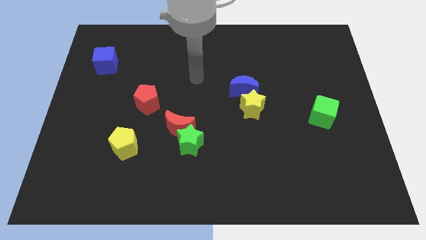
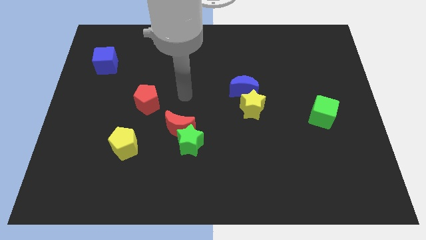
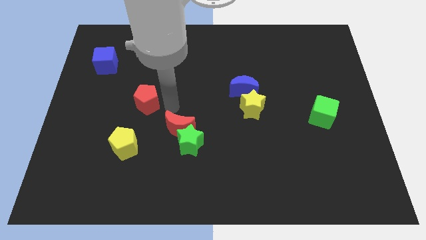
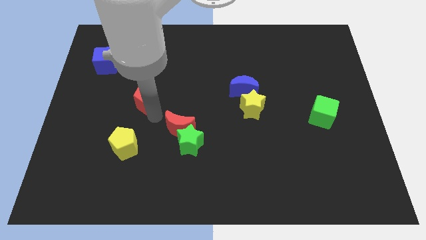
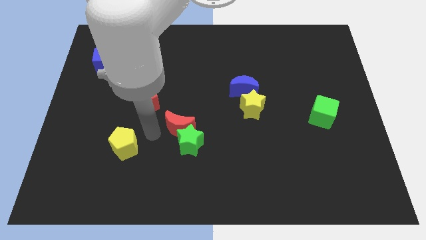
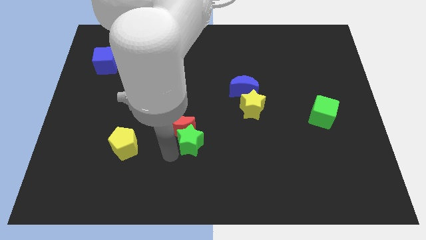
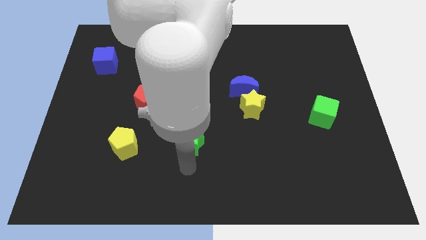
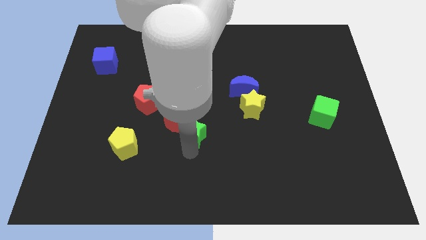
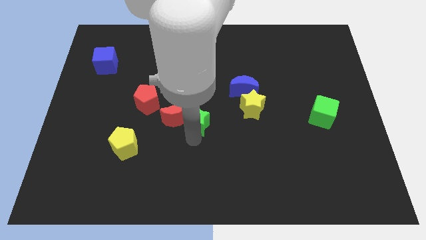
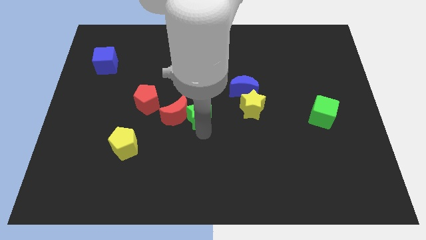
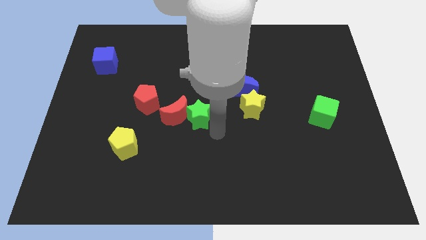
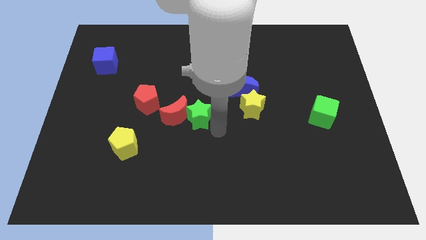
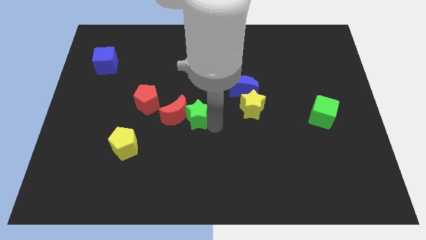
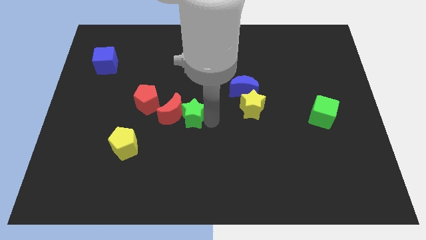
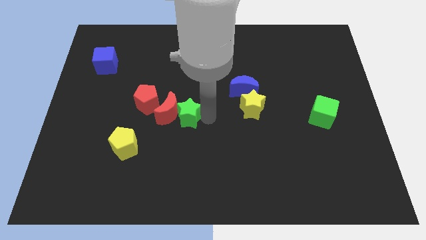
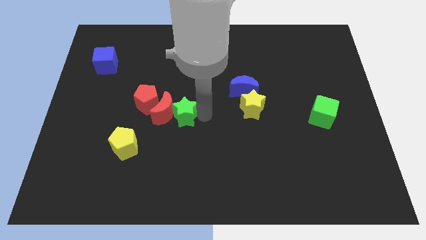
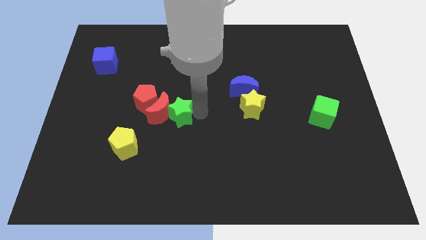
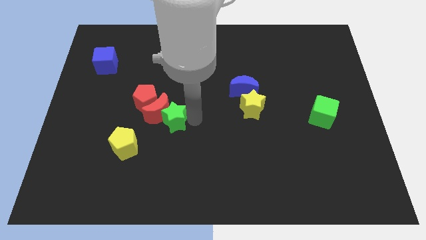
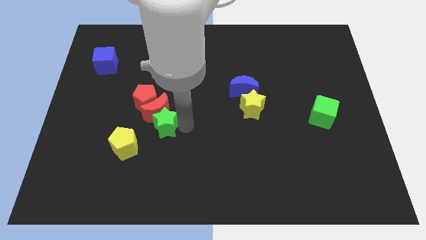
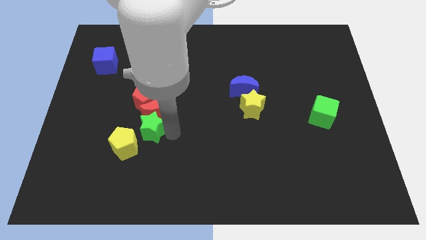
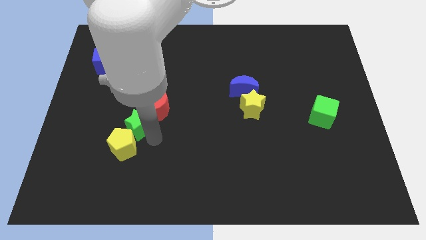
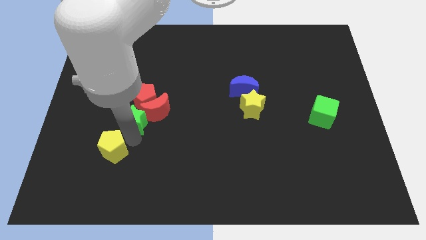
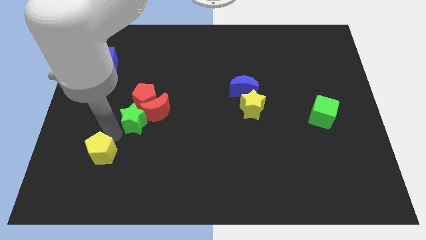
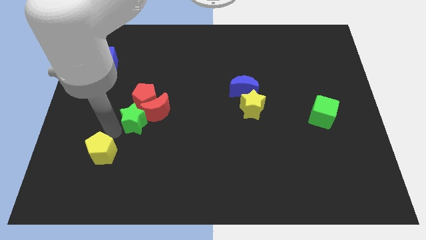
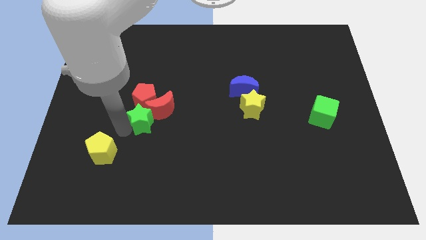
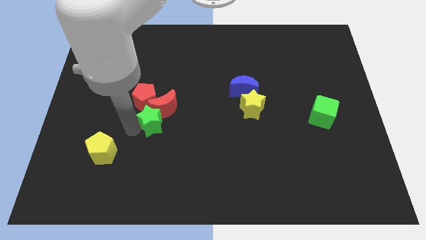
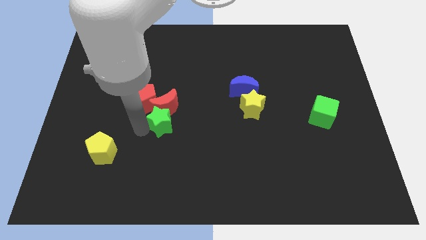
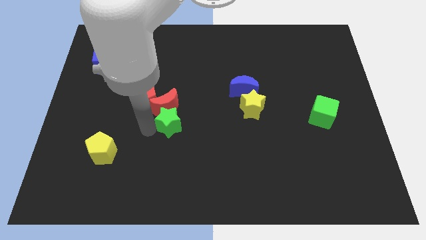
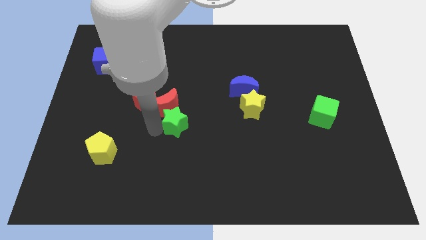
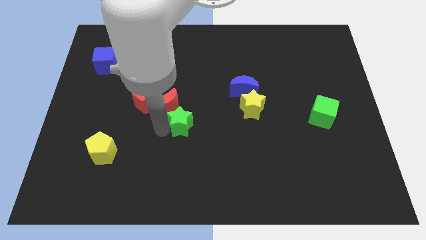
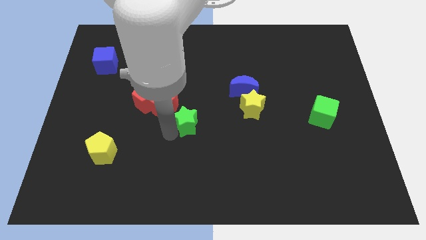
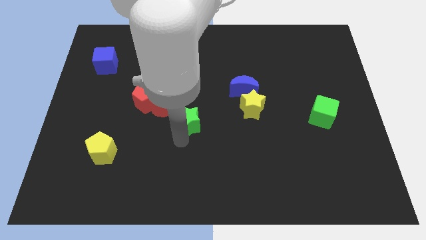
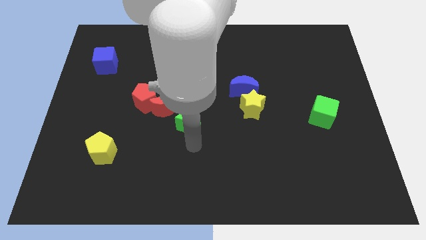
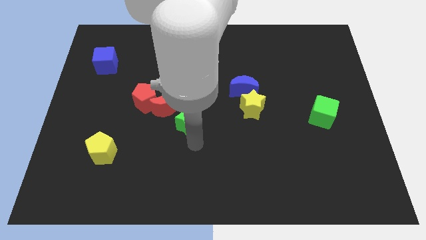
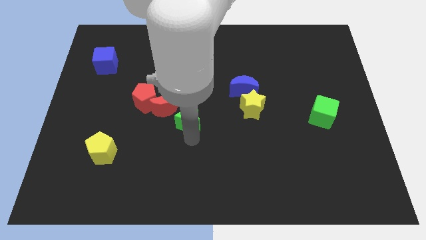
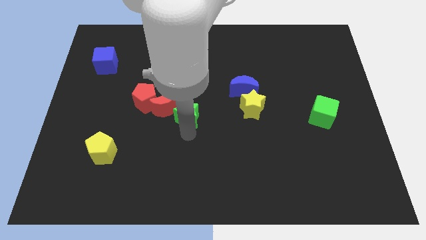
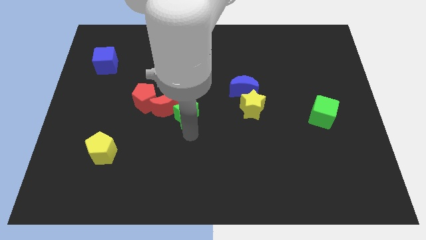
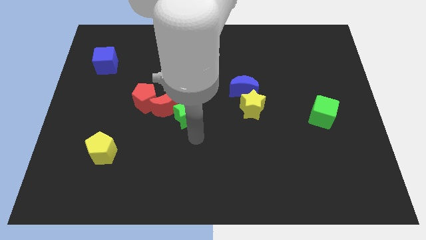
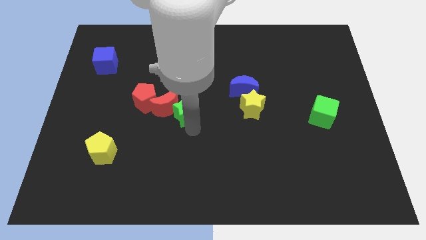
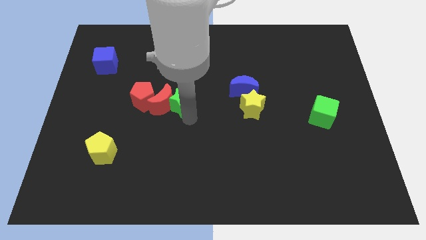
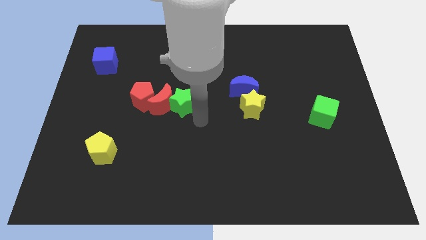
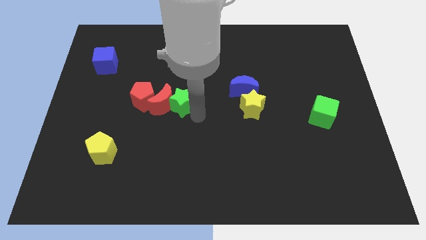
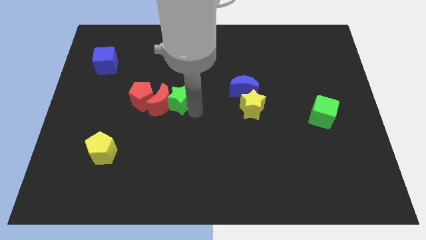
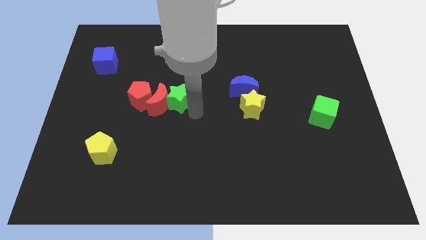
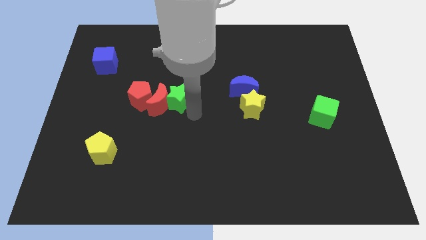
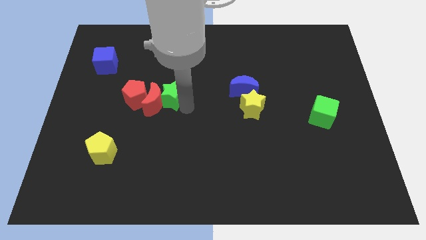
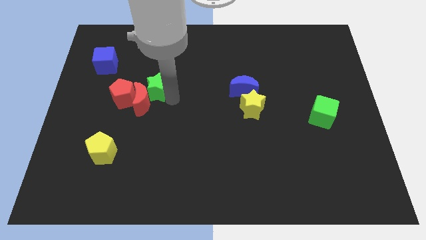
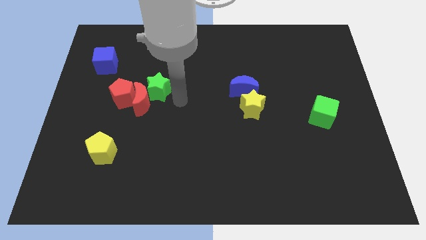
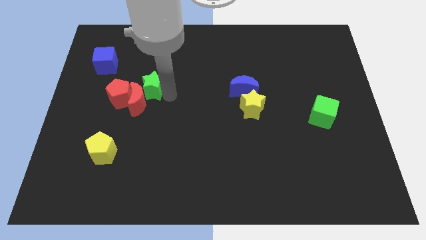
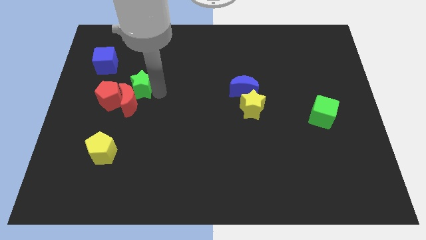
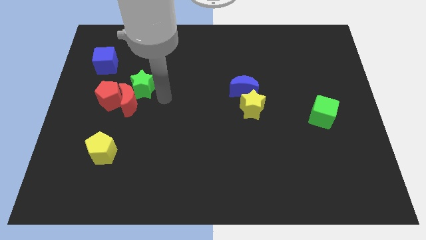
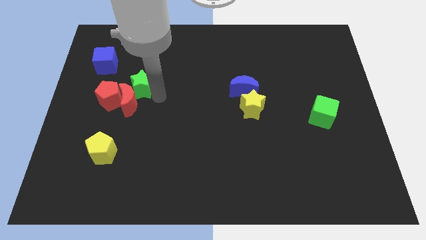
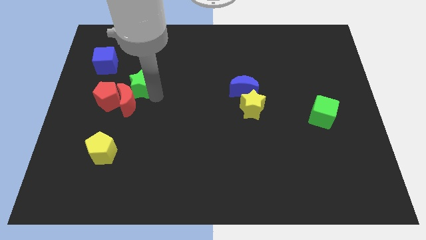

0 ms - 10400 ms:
put the green star to the bottom right side of the blue cube

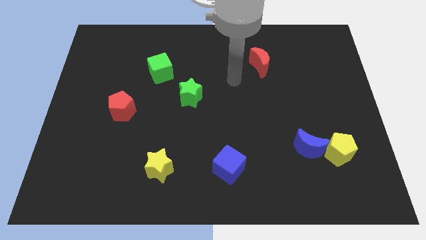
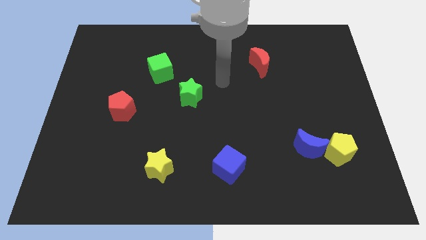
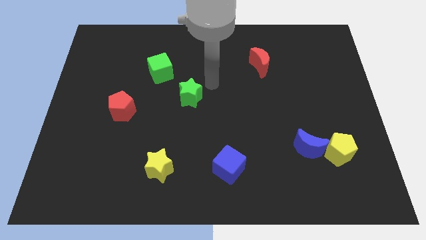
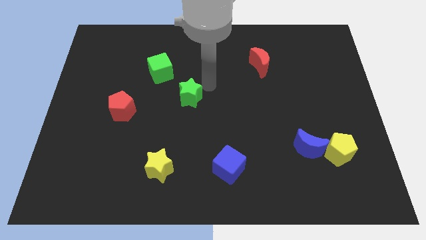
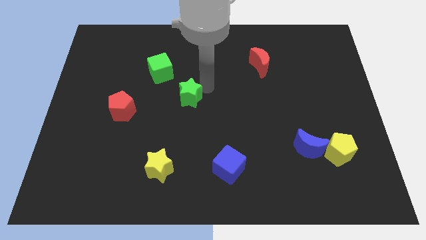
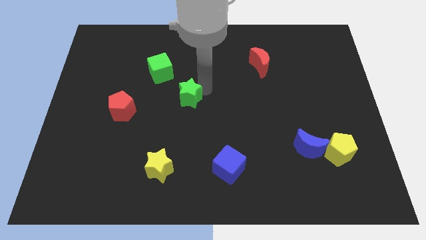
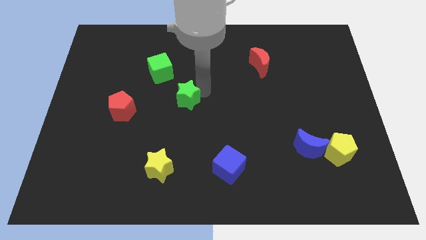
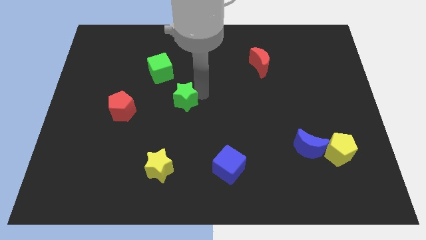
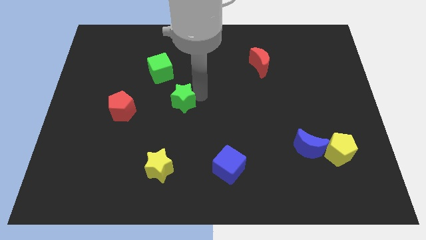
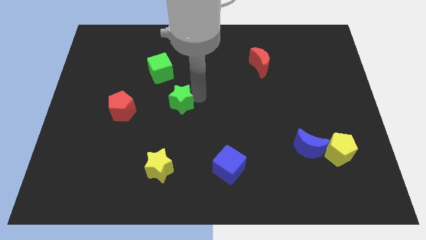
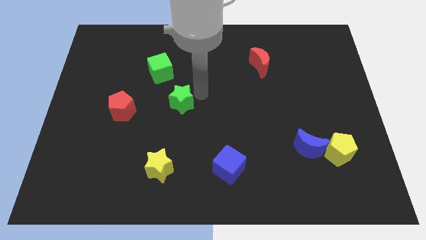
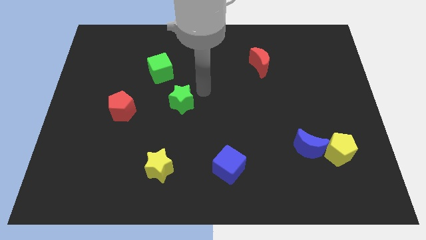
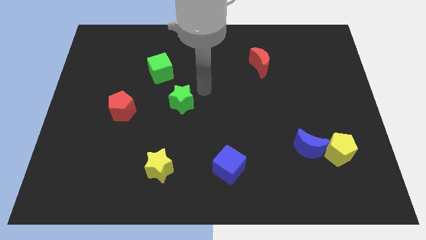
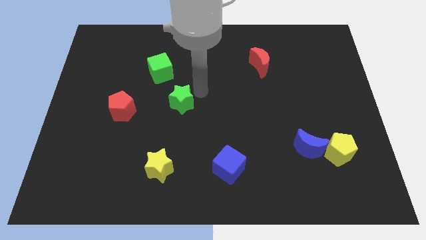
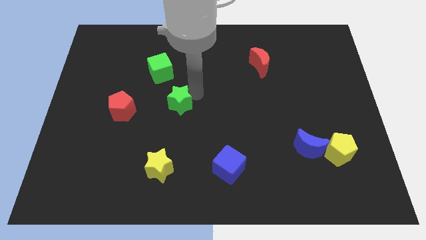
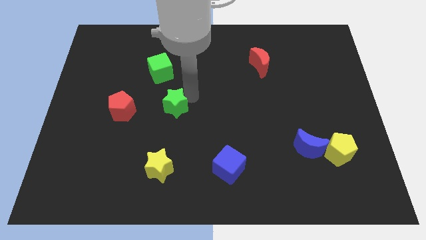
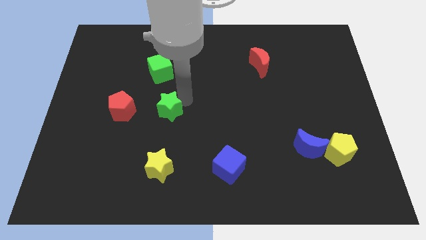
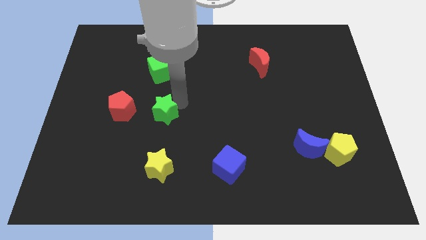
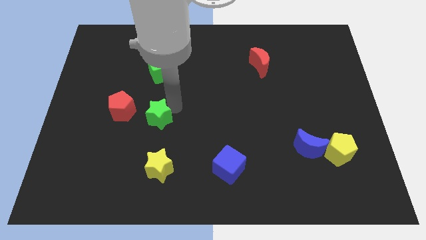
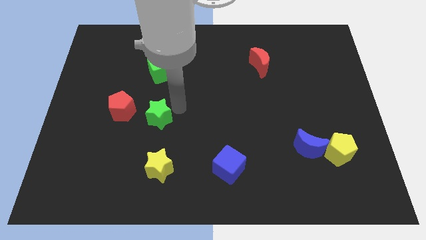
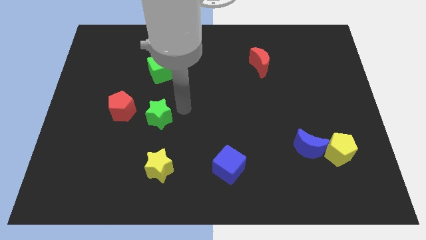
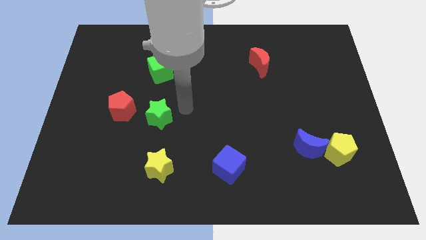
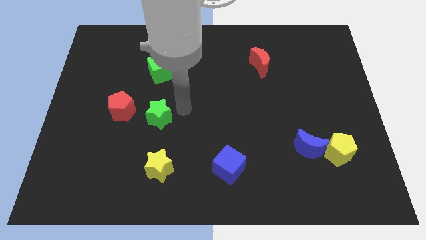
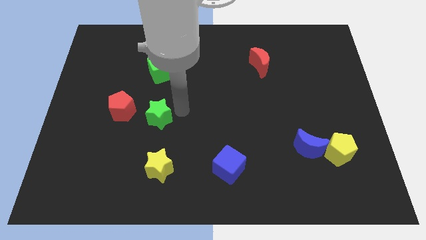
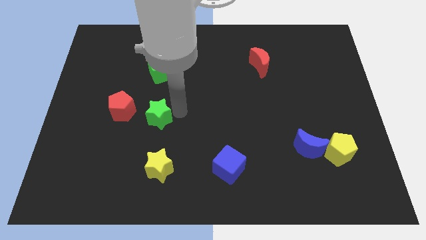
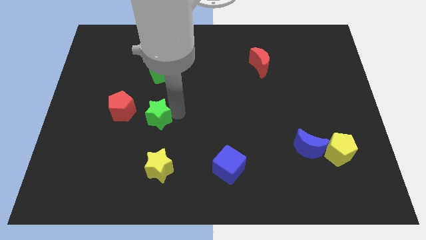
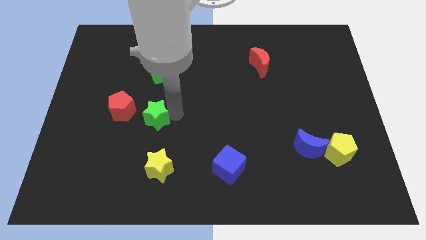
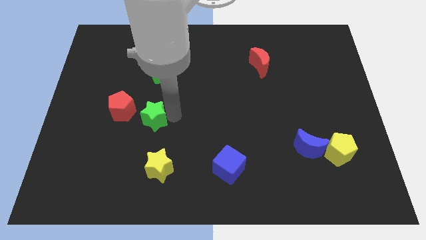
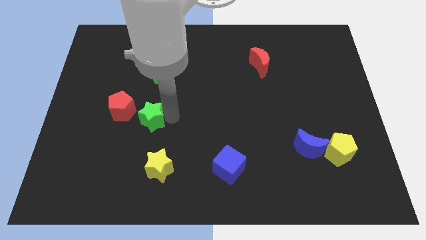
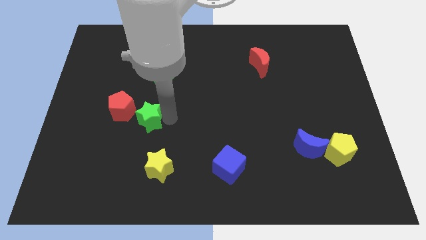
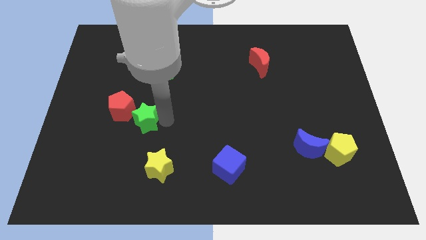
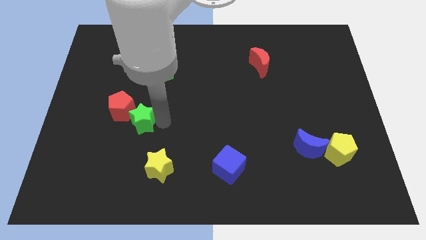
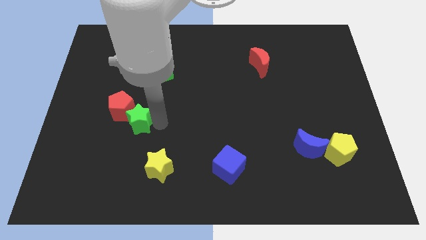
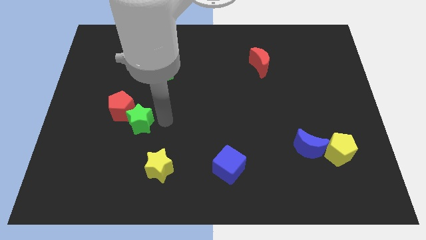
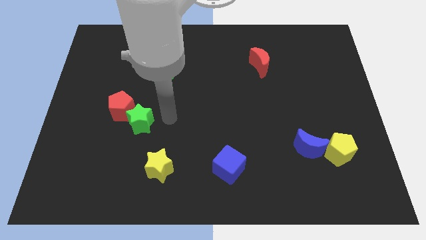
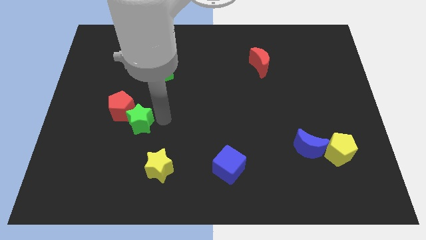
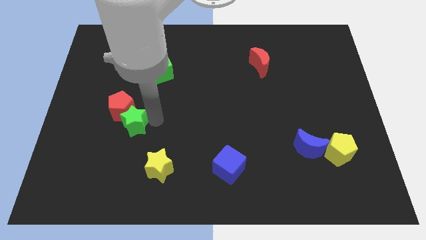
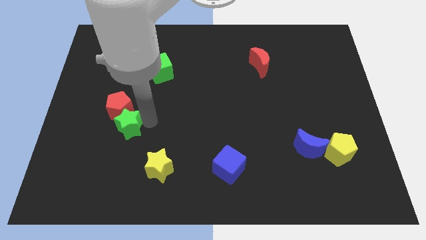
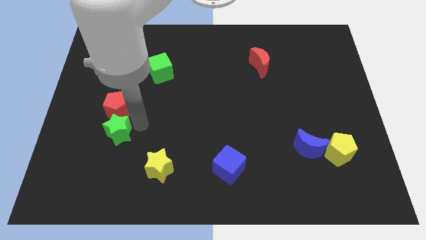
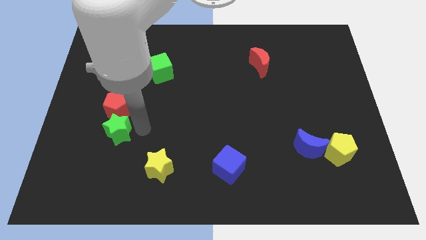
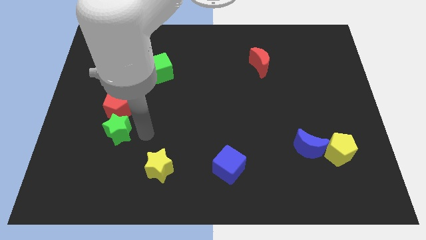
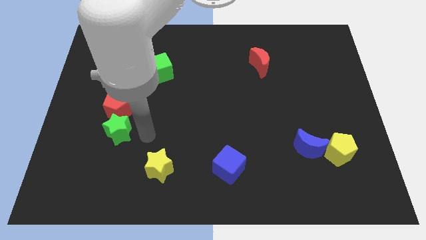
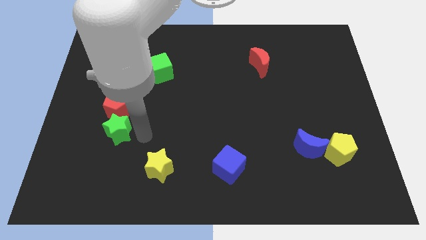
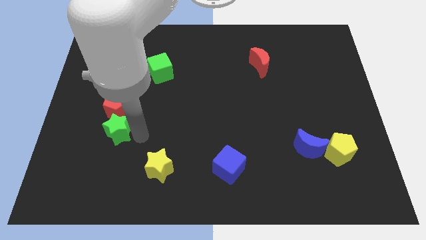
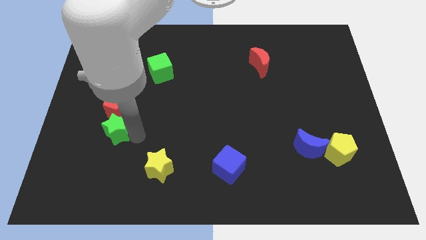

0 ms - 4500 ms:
slide the green star diagonally down and to the left of the red pentagon
